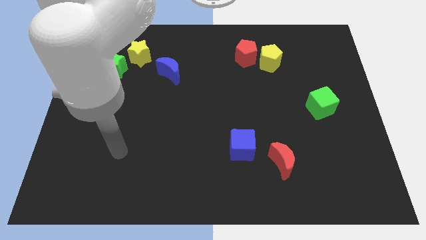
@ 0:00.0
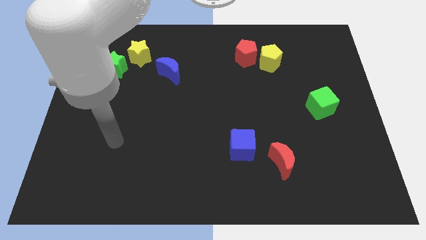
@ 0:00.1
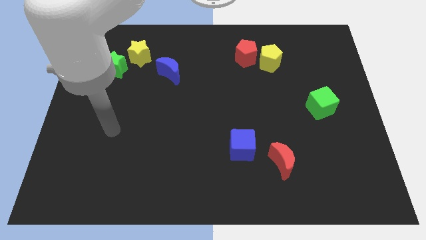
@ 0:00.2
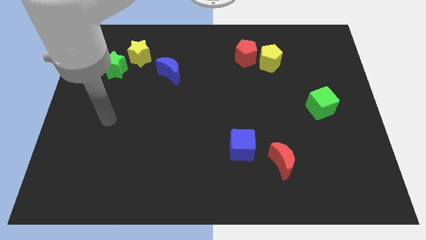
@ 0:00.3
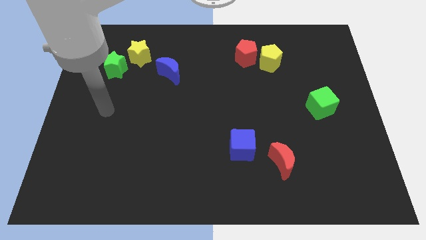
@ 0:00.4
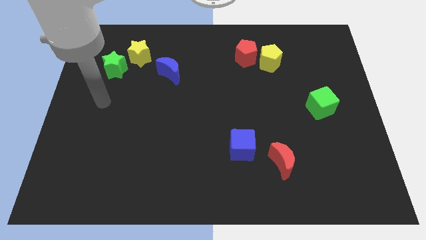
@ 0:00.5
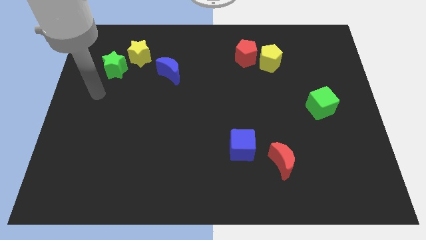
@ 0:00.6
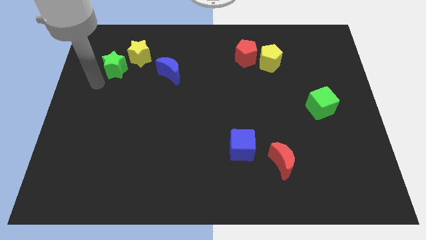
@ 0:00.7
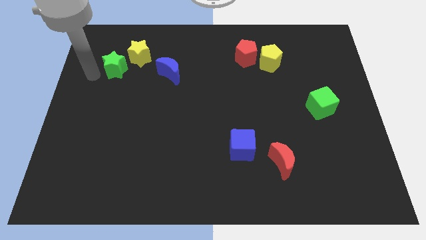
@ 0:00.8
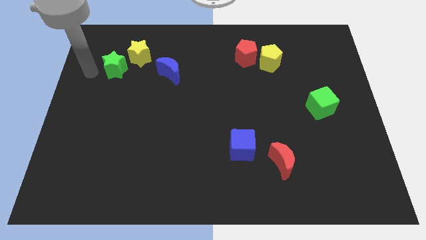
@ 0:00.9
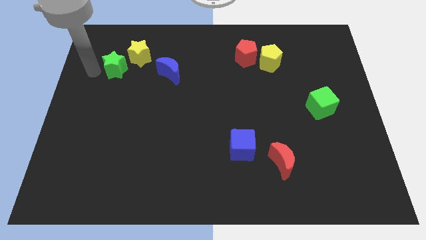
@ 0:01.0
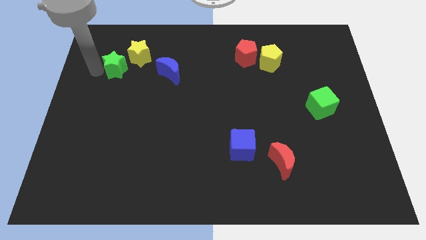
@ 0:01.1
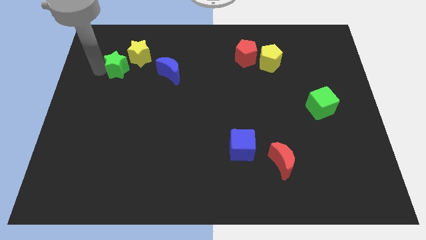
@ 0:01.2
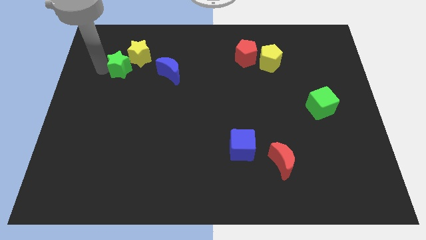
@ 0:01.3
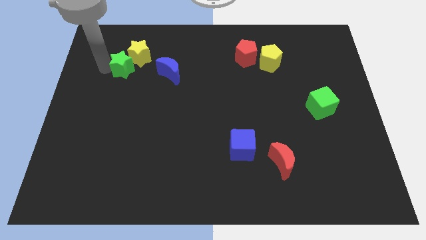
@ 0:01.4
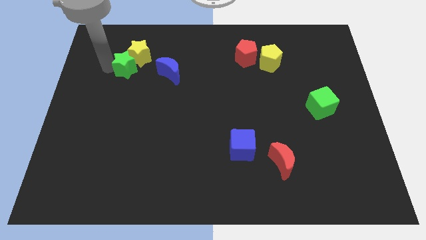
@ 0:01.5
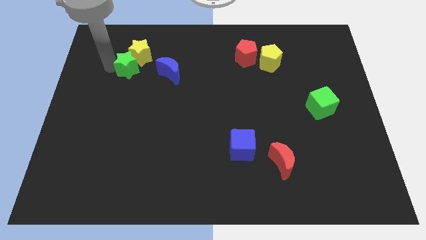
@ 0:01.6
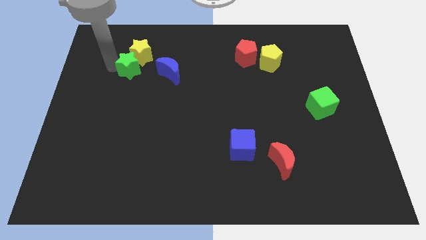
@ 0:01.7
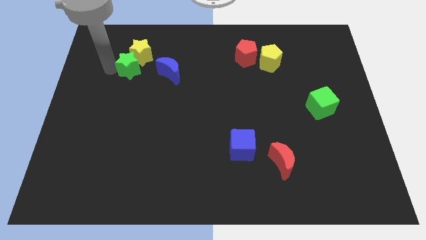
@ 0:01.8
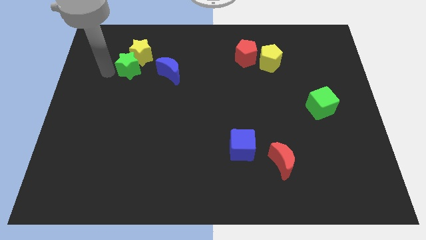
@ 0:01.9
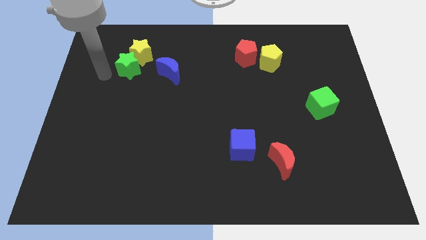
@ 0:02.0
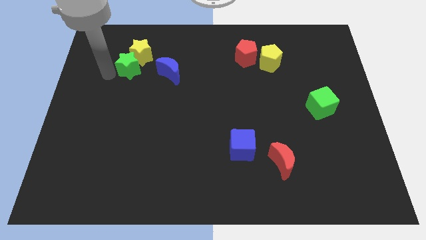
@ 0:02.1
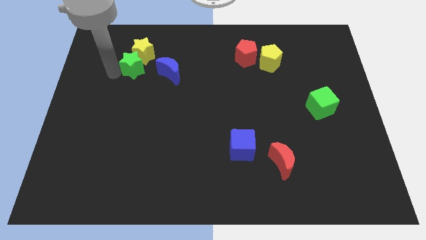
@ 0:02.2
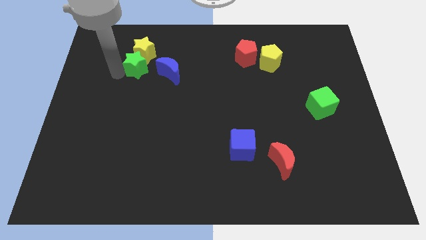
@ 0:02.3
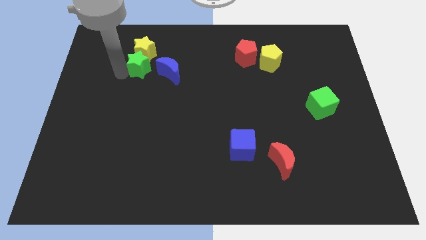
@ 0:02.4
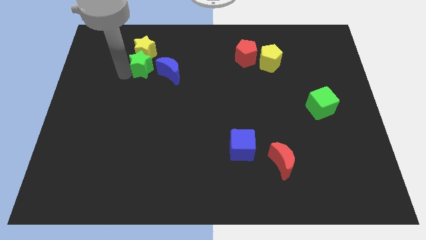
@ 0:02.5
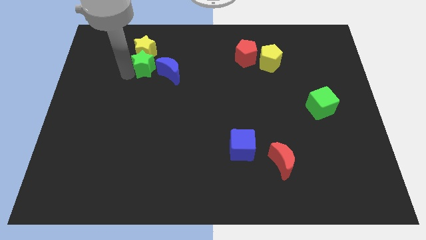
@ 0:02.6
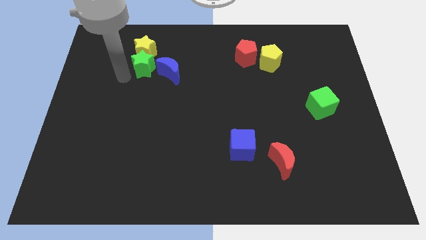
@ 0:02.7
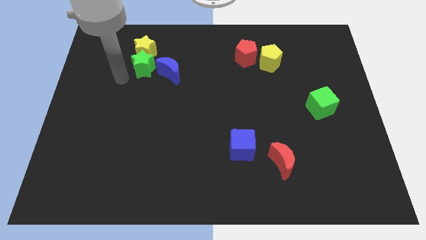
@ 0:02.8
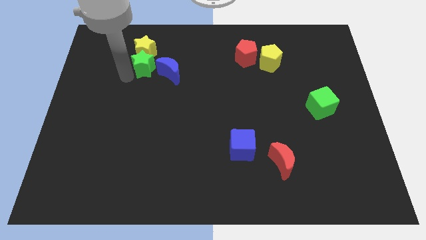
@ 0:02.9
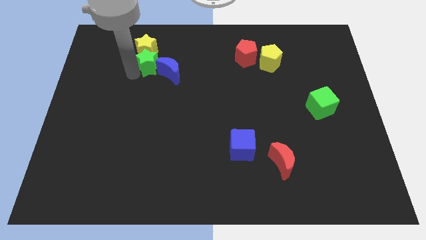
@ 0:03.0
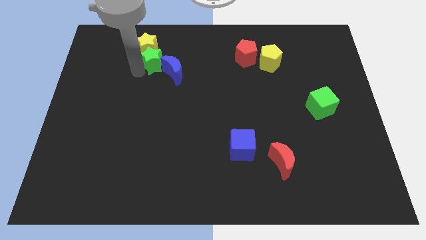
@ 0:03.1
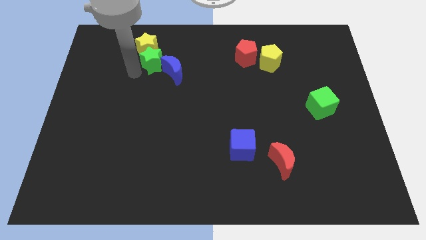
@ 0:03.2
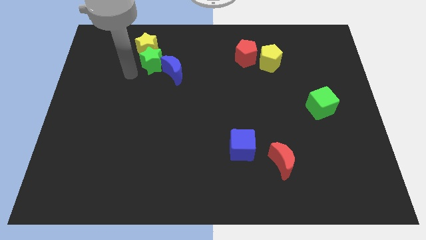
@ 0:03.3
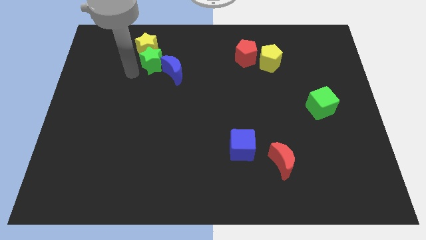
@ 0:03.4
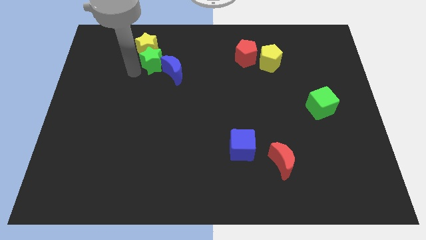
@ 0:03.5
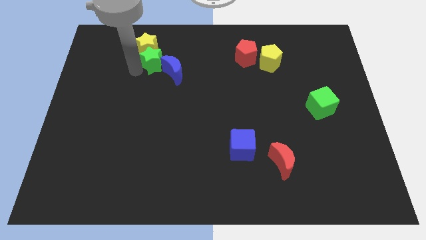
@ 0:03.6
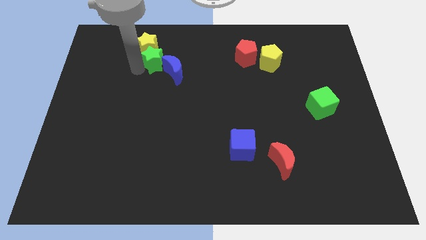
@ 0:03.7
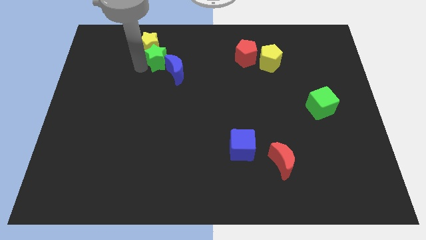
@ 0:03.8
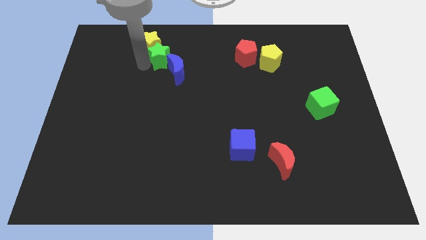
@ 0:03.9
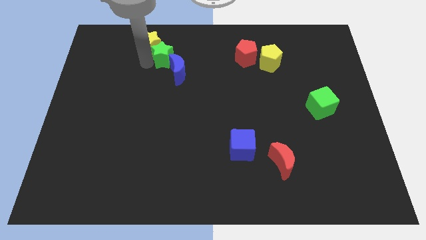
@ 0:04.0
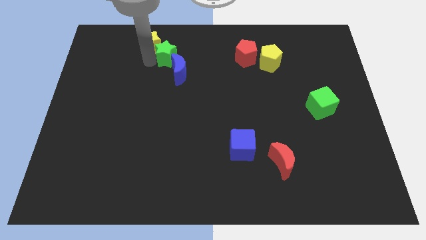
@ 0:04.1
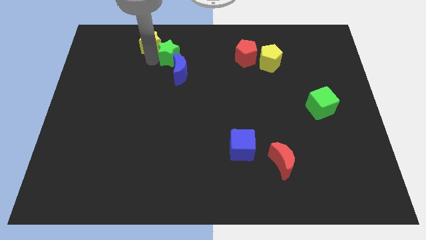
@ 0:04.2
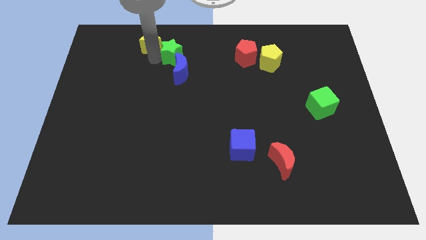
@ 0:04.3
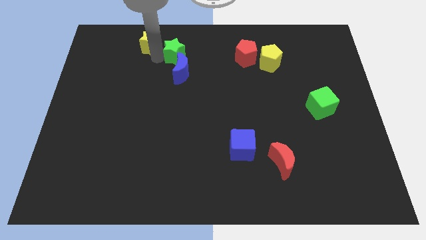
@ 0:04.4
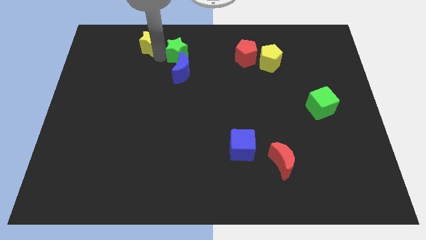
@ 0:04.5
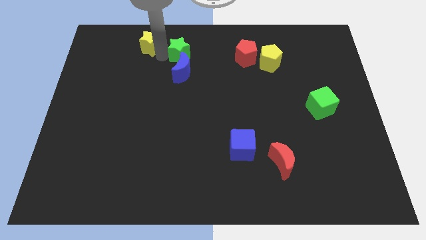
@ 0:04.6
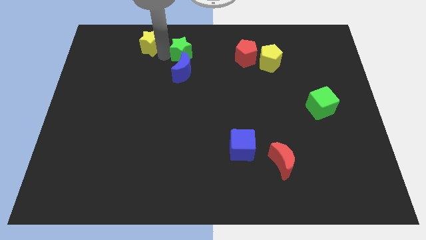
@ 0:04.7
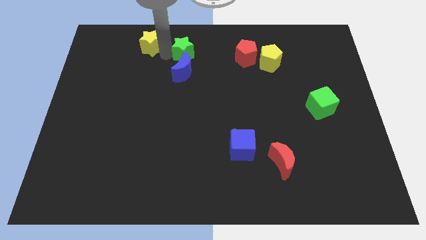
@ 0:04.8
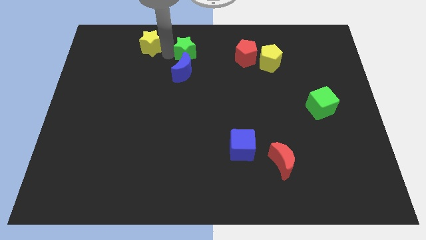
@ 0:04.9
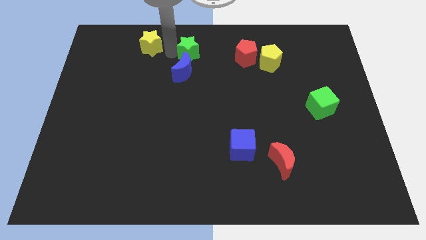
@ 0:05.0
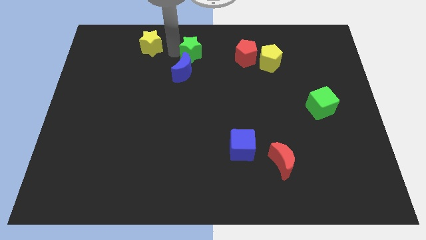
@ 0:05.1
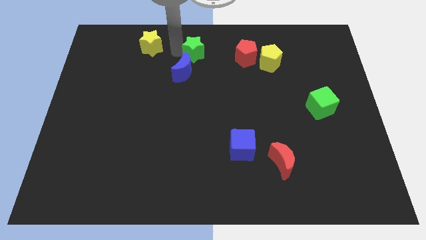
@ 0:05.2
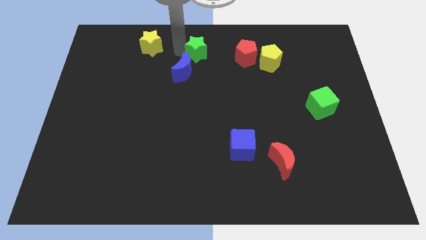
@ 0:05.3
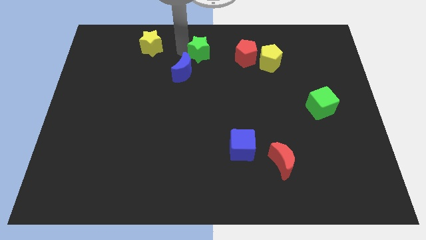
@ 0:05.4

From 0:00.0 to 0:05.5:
move the green star to the right

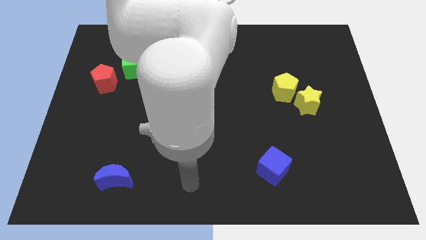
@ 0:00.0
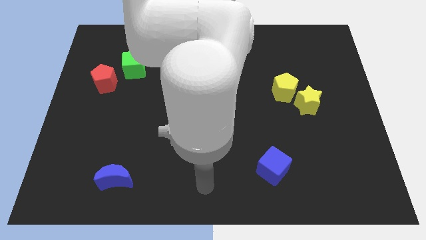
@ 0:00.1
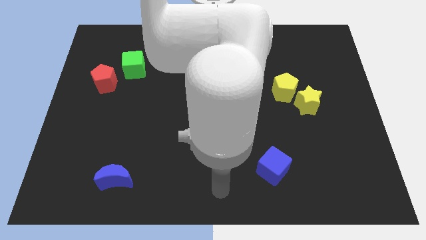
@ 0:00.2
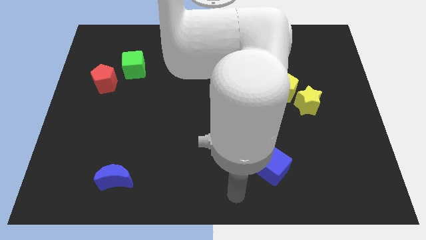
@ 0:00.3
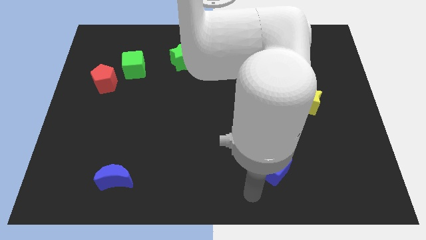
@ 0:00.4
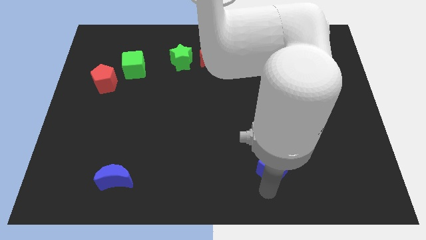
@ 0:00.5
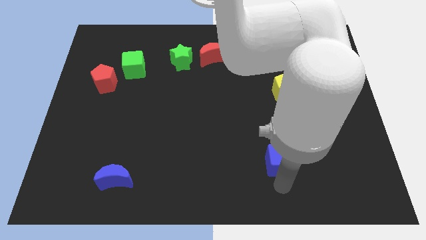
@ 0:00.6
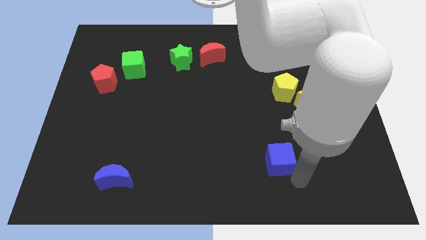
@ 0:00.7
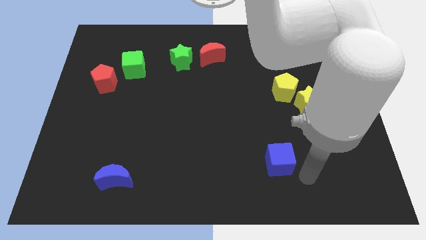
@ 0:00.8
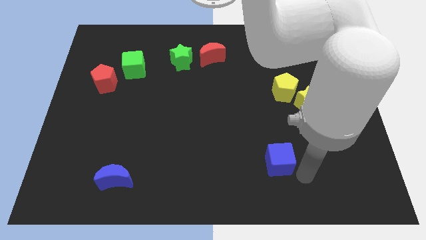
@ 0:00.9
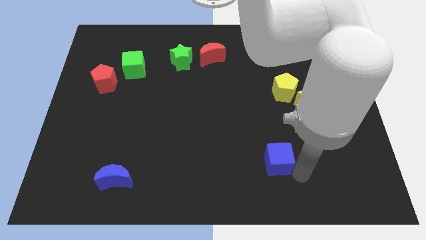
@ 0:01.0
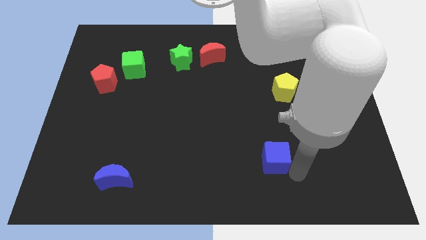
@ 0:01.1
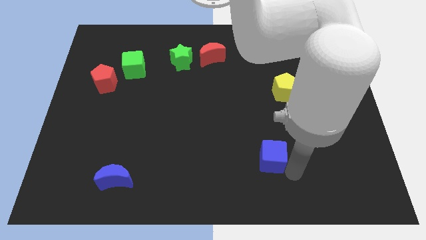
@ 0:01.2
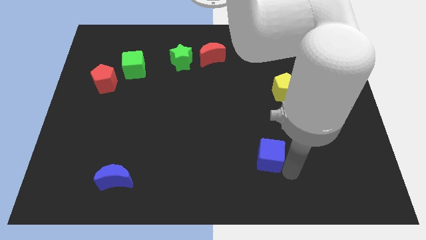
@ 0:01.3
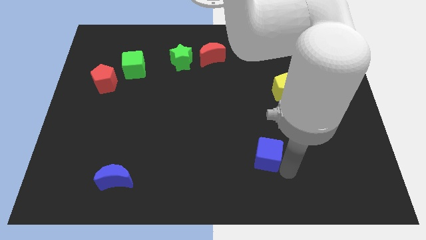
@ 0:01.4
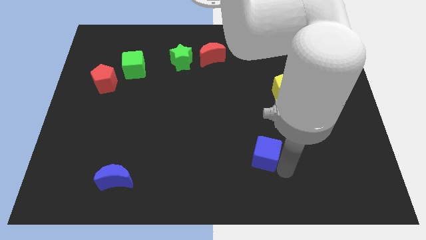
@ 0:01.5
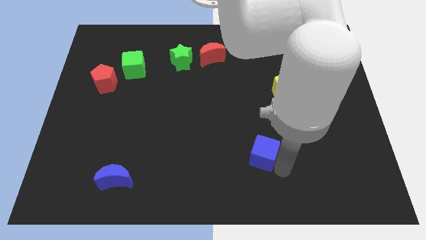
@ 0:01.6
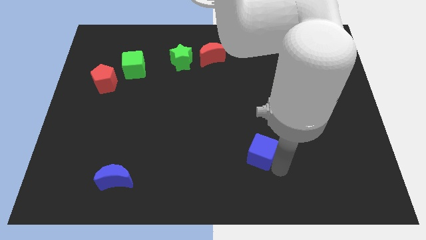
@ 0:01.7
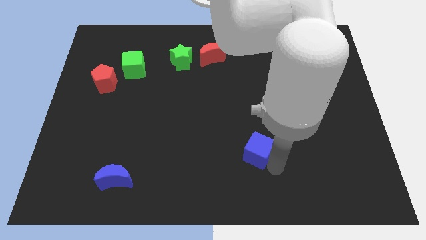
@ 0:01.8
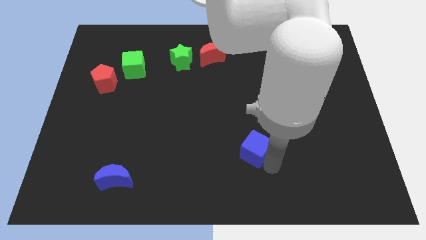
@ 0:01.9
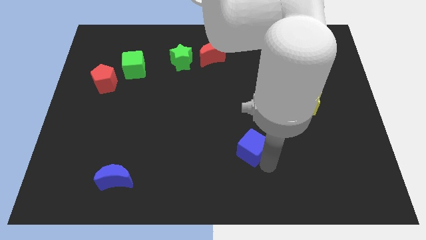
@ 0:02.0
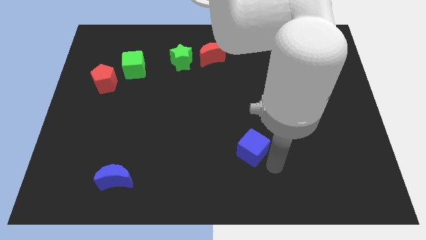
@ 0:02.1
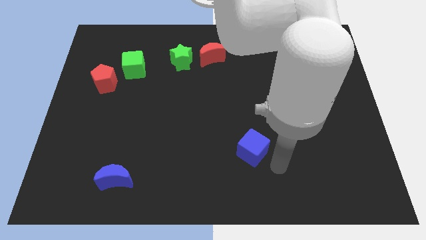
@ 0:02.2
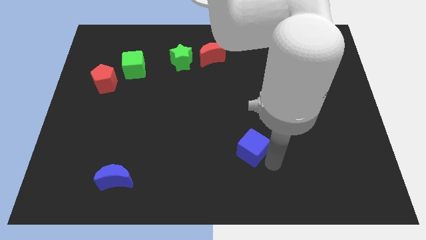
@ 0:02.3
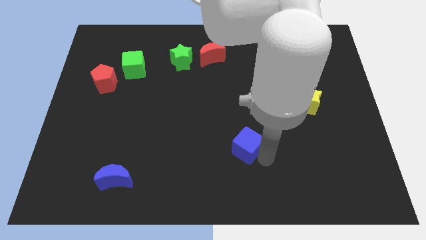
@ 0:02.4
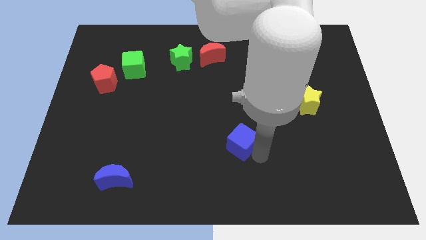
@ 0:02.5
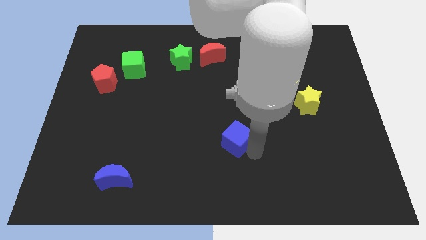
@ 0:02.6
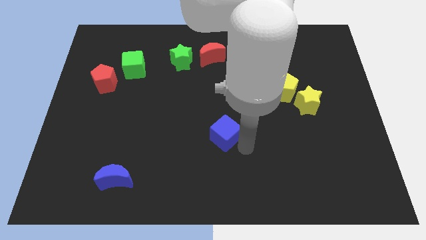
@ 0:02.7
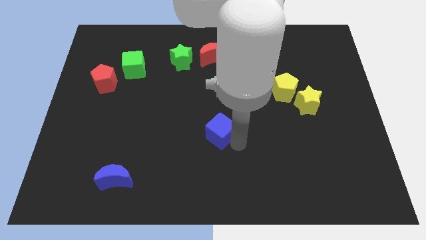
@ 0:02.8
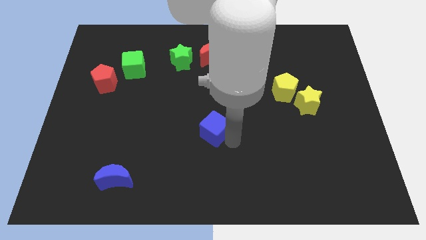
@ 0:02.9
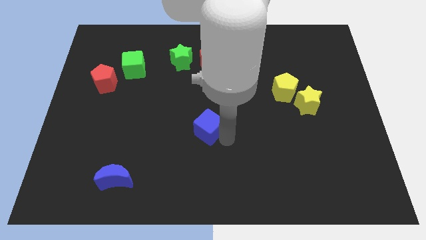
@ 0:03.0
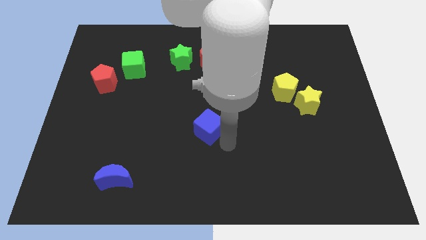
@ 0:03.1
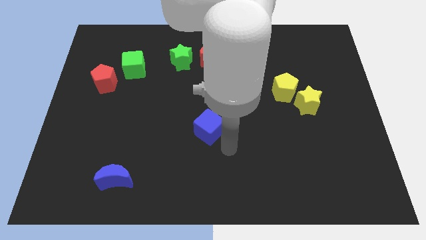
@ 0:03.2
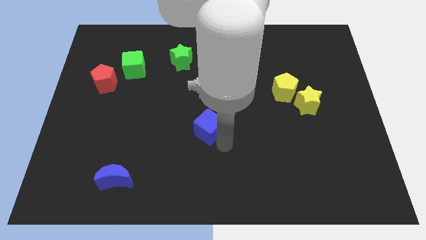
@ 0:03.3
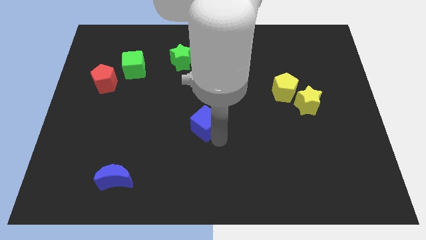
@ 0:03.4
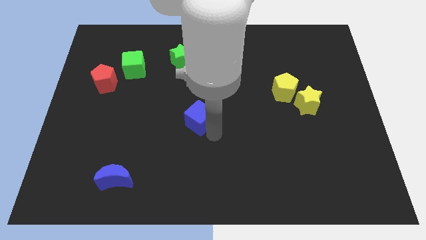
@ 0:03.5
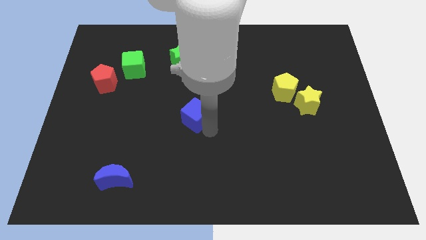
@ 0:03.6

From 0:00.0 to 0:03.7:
slide the blue cube upwards and left diagonally
